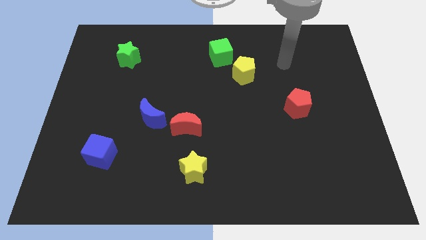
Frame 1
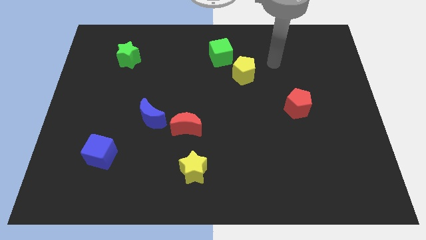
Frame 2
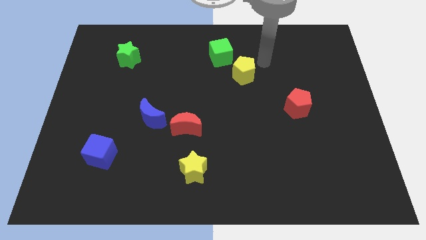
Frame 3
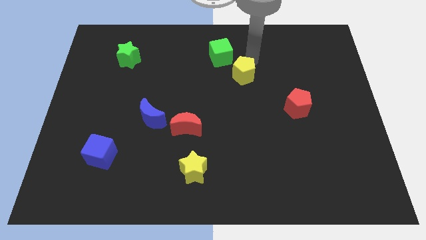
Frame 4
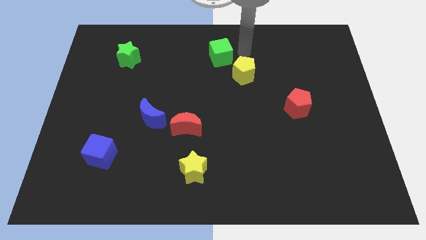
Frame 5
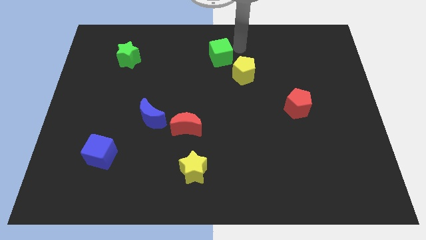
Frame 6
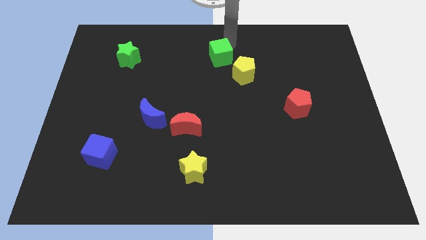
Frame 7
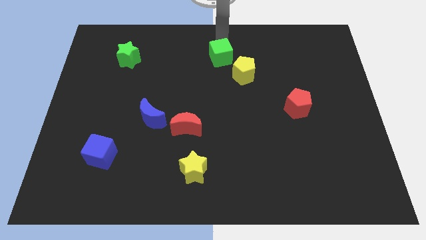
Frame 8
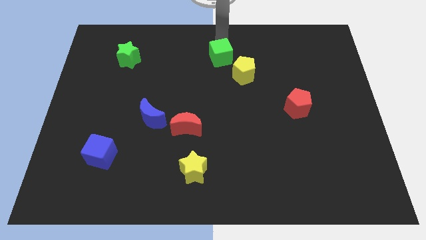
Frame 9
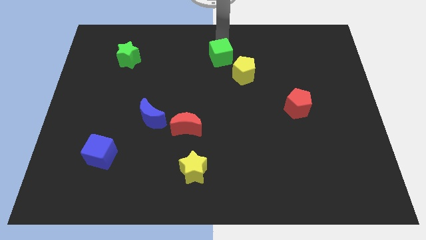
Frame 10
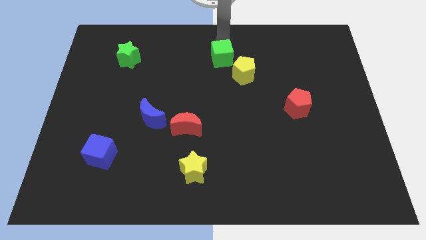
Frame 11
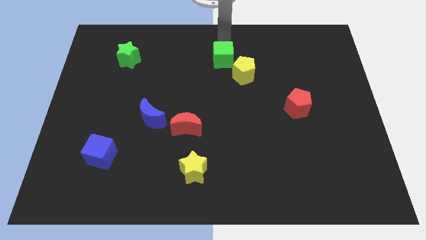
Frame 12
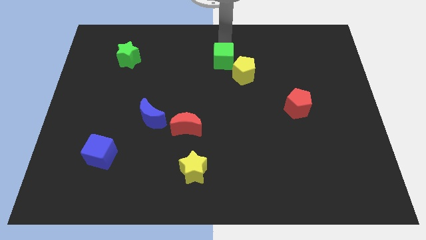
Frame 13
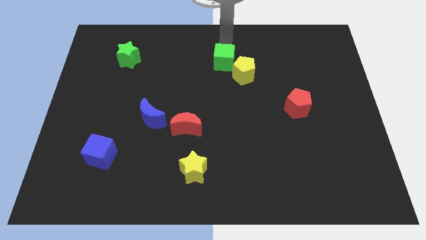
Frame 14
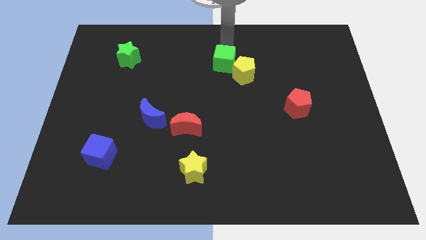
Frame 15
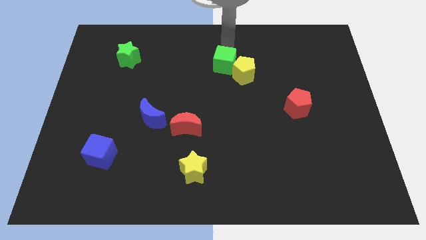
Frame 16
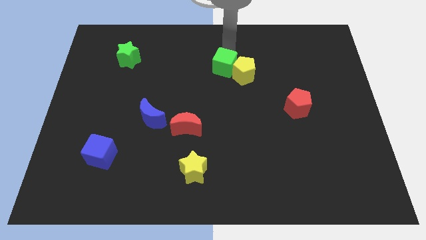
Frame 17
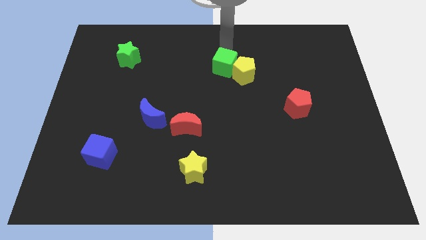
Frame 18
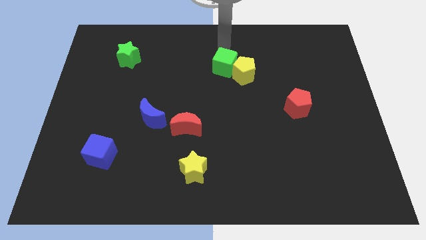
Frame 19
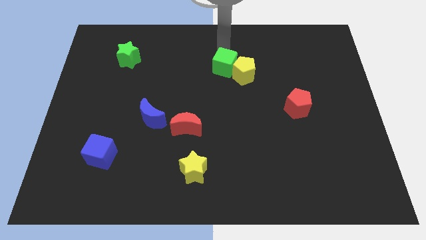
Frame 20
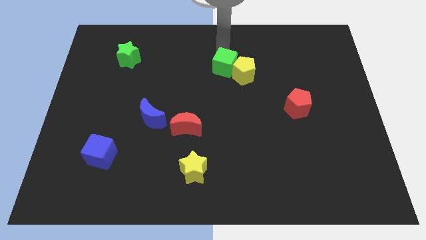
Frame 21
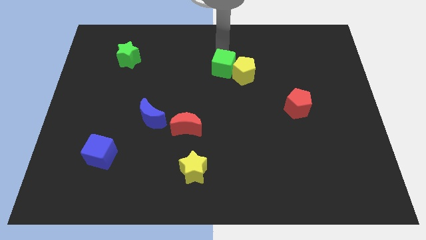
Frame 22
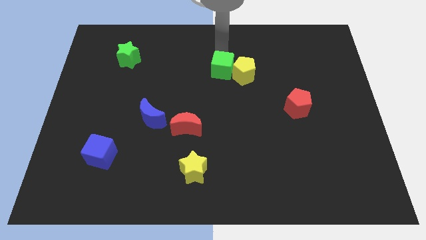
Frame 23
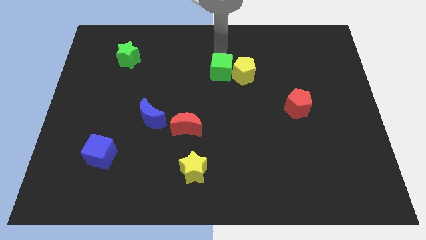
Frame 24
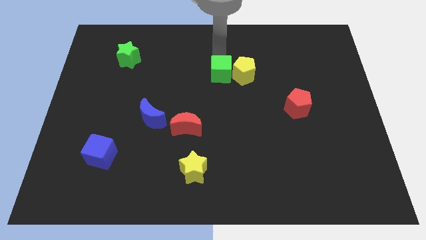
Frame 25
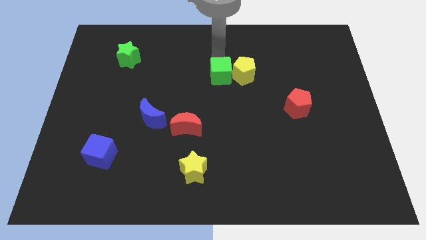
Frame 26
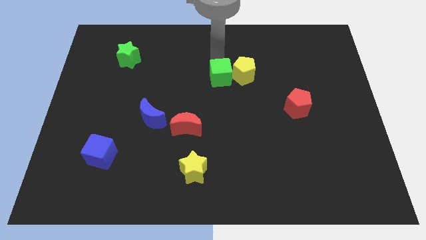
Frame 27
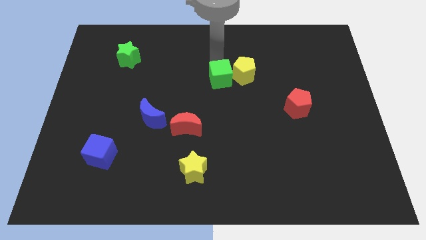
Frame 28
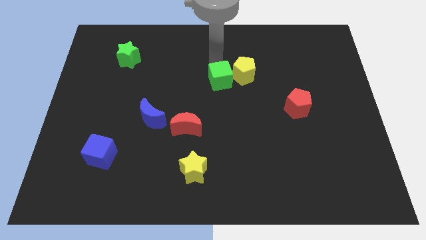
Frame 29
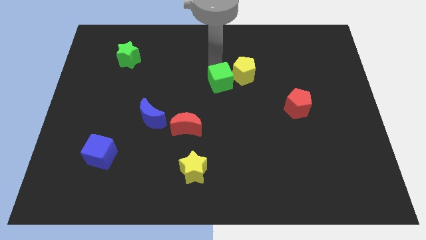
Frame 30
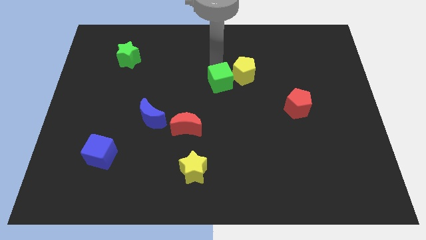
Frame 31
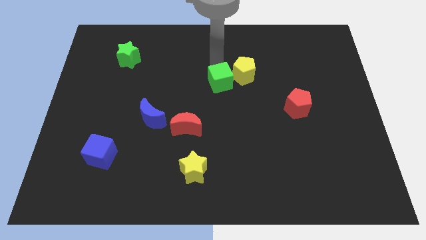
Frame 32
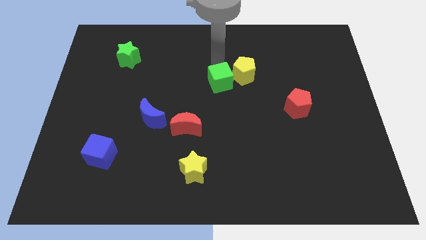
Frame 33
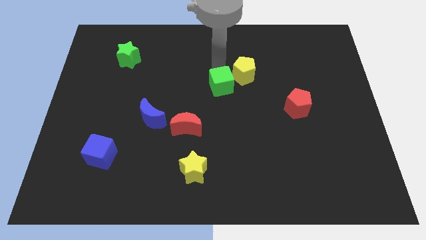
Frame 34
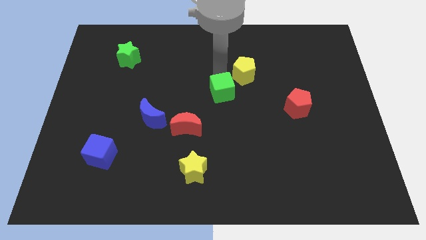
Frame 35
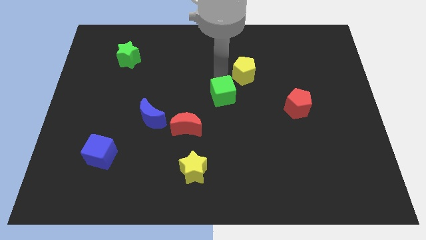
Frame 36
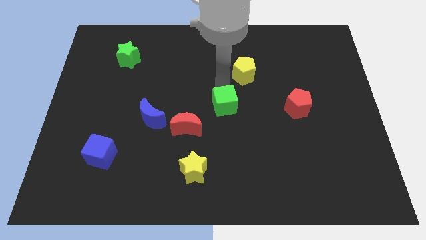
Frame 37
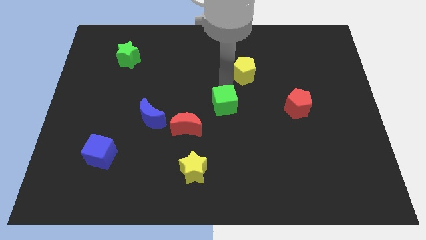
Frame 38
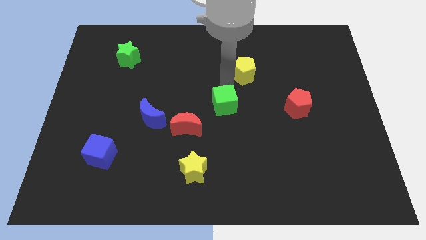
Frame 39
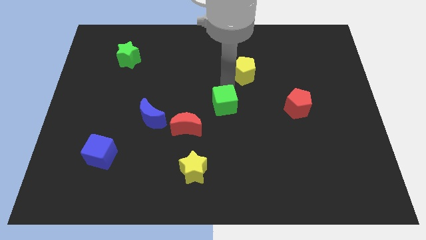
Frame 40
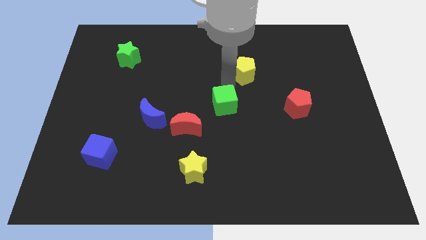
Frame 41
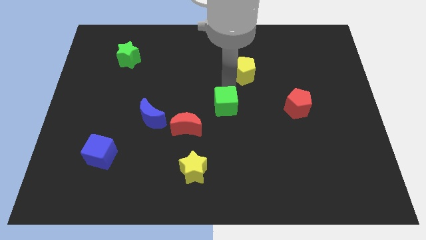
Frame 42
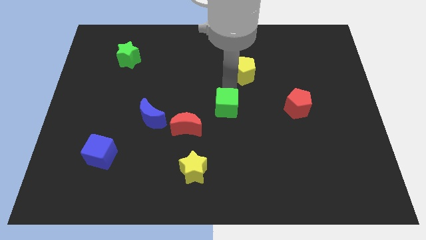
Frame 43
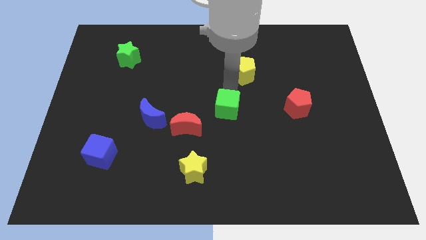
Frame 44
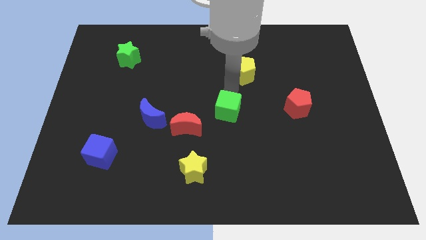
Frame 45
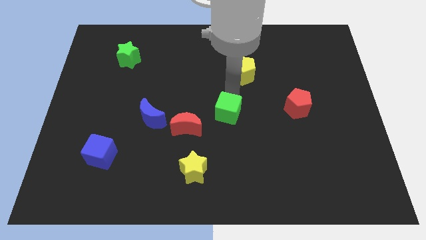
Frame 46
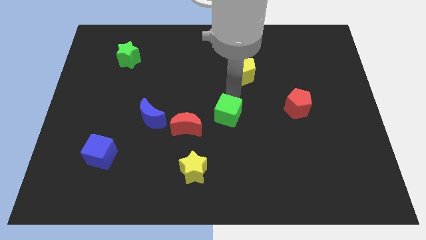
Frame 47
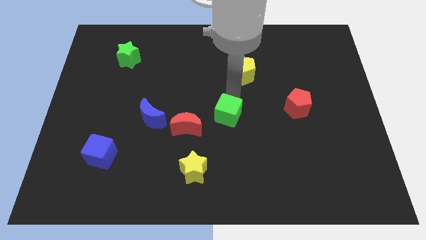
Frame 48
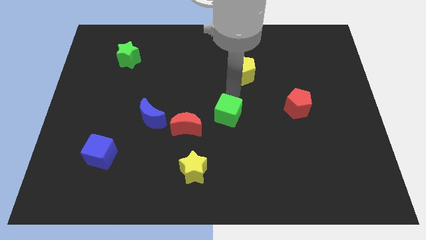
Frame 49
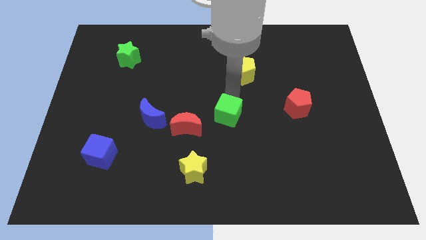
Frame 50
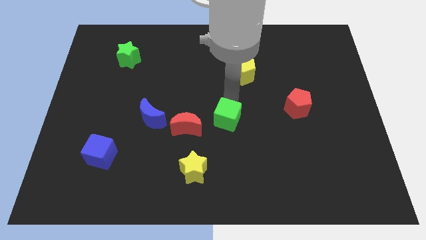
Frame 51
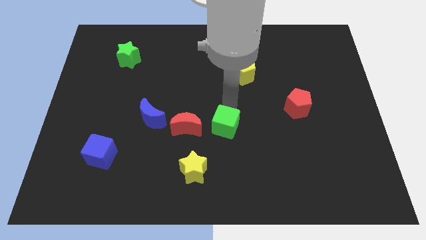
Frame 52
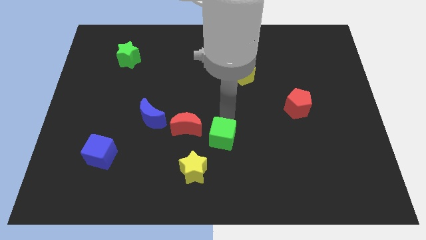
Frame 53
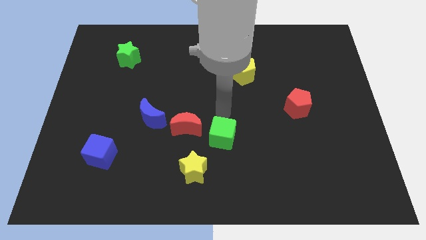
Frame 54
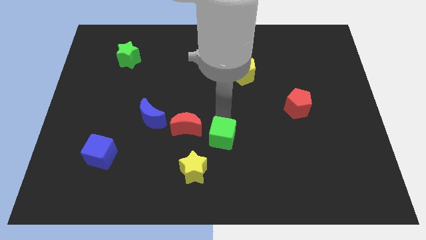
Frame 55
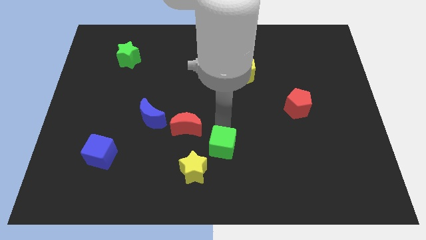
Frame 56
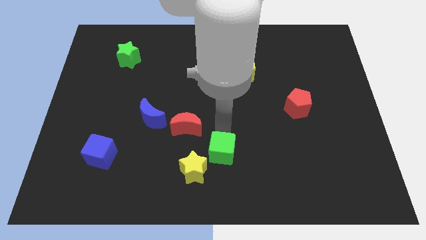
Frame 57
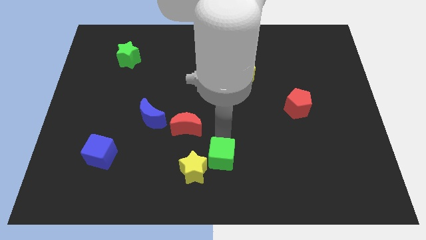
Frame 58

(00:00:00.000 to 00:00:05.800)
slide the green cube to the bottom

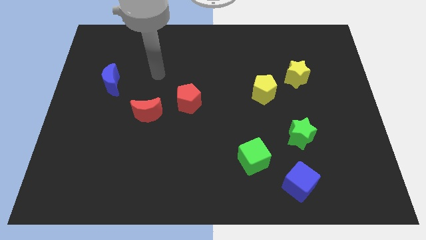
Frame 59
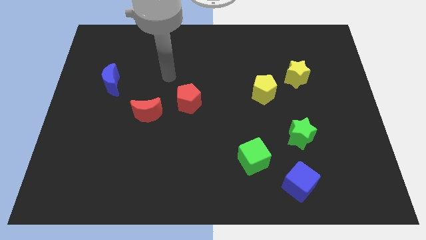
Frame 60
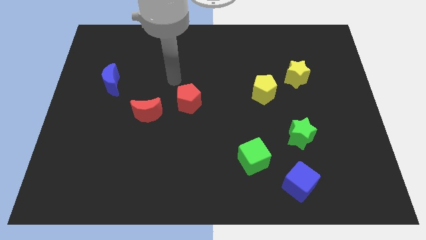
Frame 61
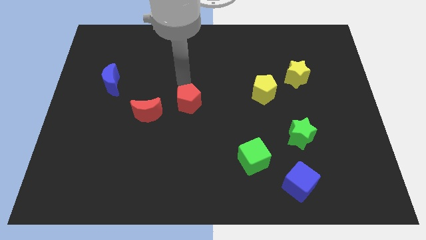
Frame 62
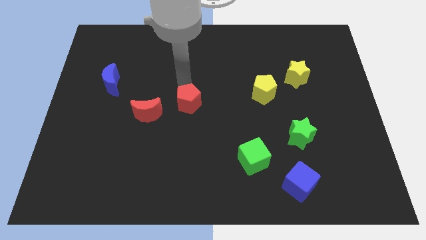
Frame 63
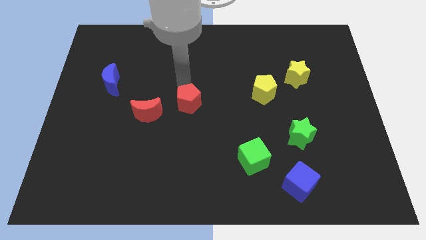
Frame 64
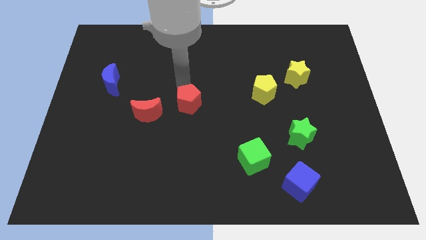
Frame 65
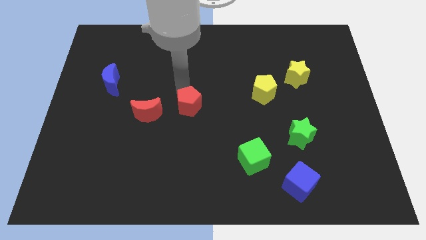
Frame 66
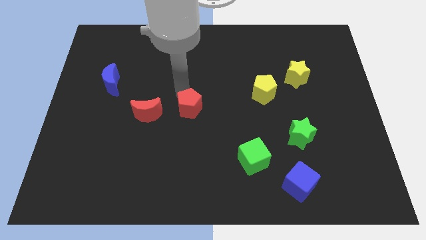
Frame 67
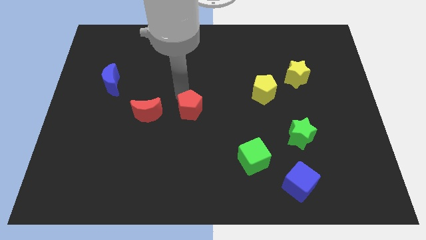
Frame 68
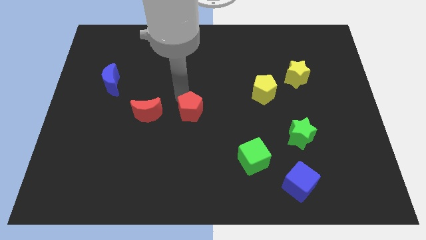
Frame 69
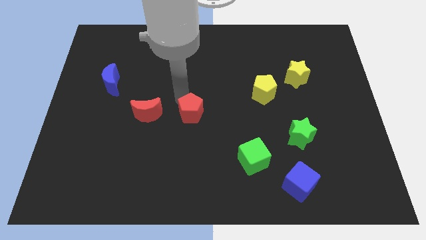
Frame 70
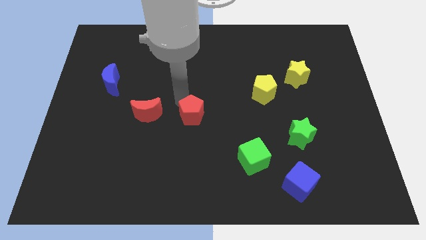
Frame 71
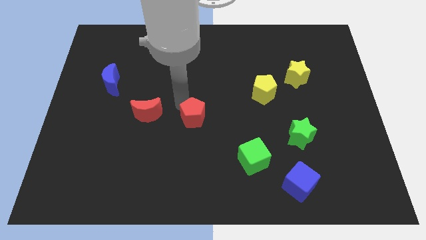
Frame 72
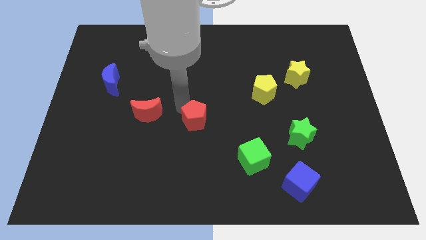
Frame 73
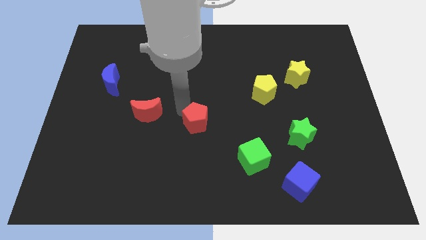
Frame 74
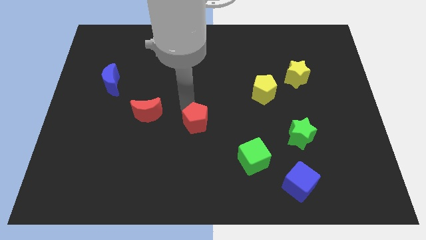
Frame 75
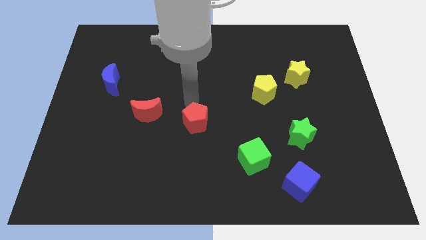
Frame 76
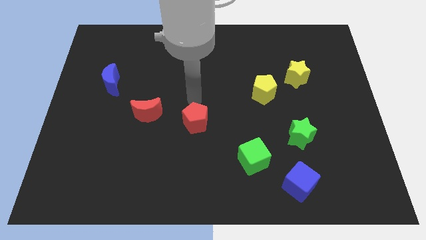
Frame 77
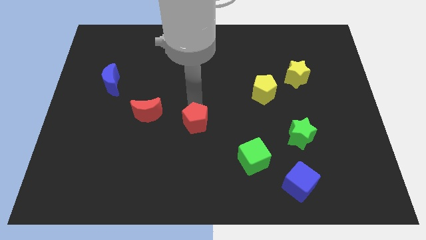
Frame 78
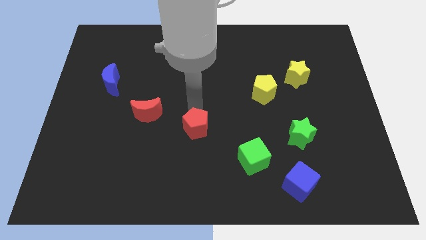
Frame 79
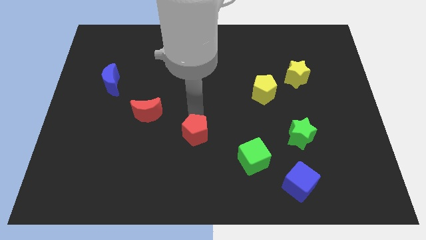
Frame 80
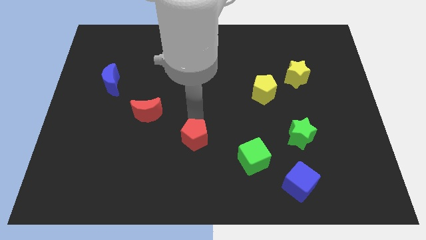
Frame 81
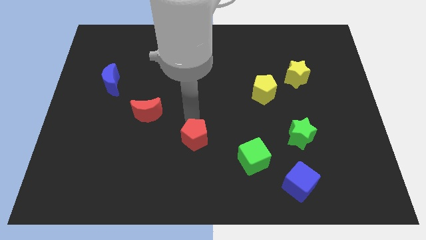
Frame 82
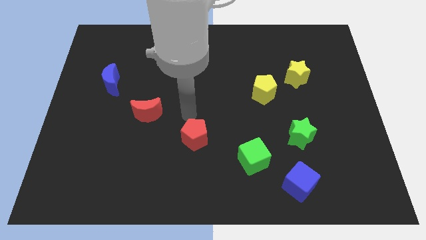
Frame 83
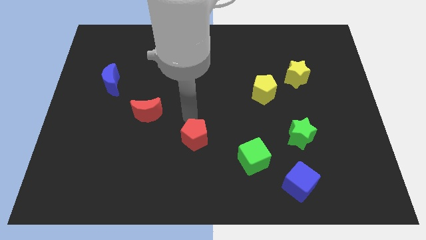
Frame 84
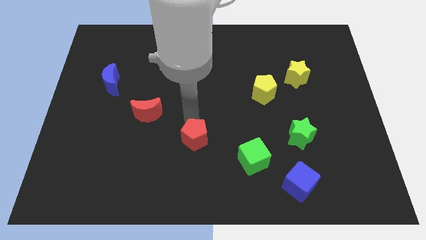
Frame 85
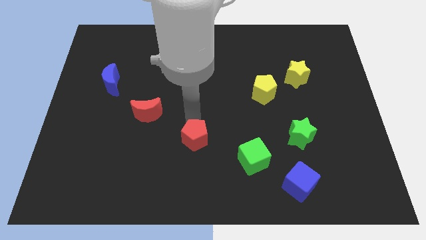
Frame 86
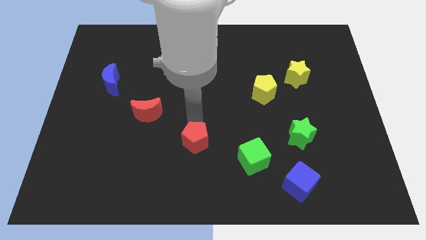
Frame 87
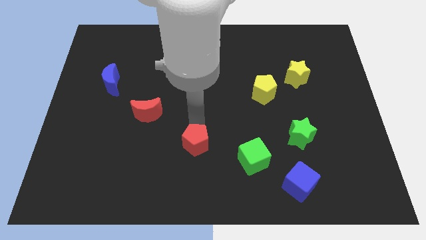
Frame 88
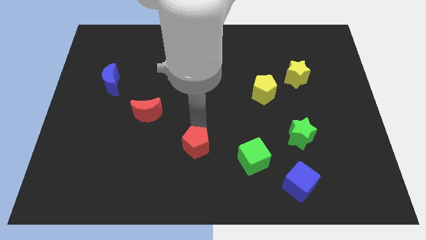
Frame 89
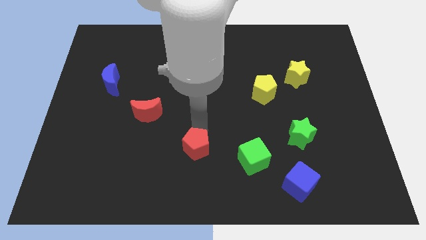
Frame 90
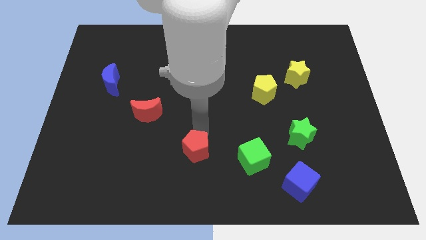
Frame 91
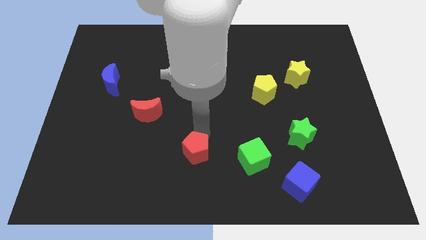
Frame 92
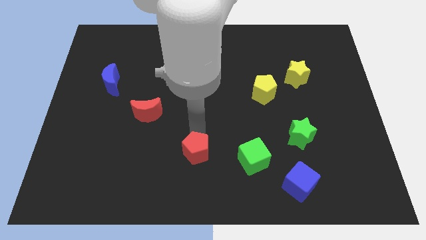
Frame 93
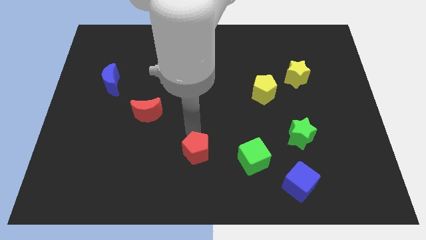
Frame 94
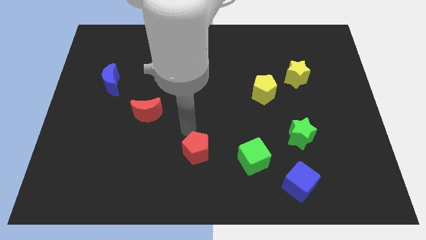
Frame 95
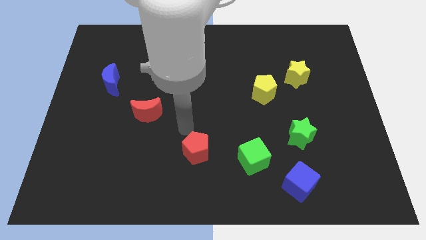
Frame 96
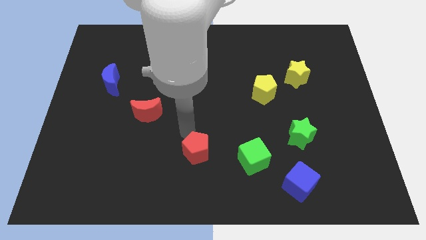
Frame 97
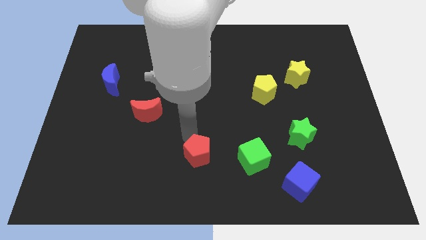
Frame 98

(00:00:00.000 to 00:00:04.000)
push the red pentagon to the bottom
